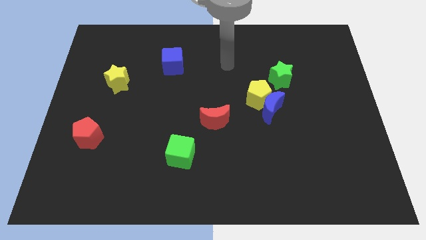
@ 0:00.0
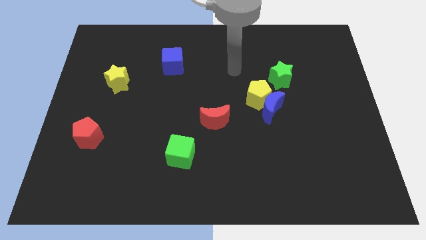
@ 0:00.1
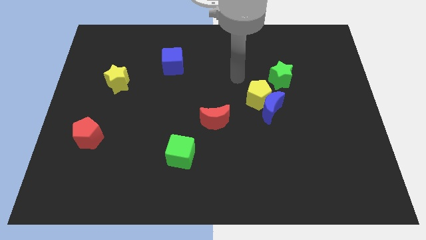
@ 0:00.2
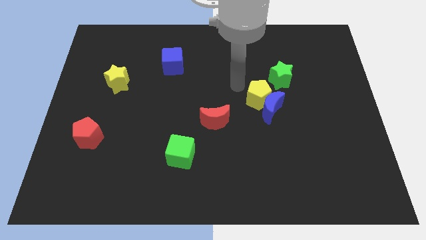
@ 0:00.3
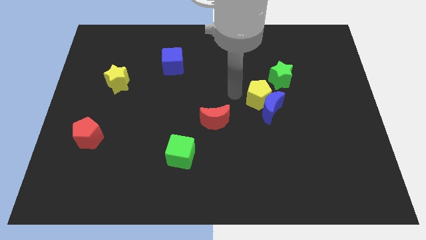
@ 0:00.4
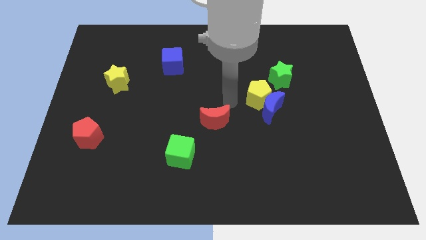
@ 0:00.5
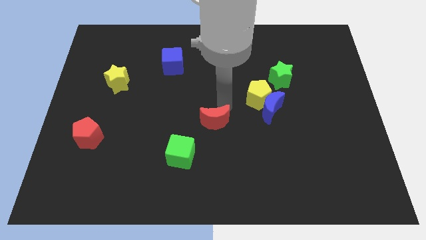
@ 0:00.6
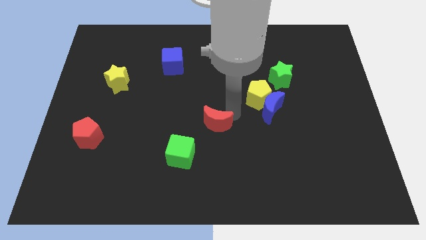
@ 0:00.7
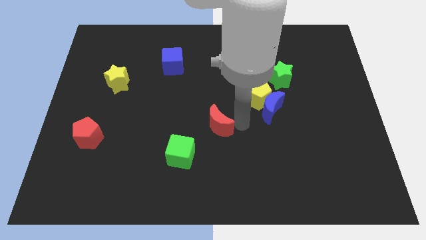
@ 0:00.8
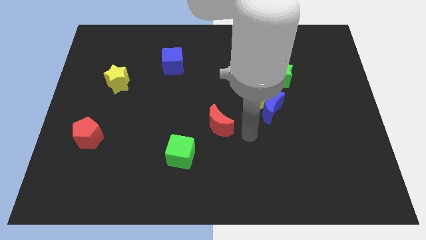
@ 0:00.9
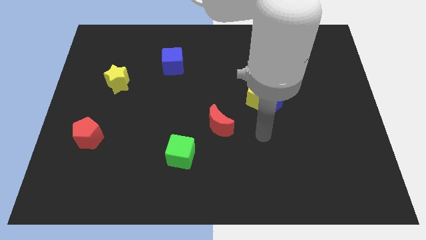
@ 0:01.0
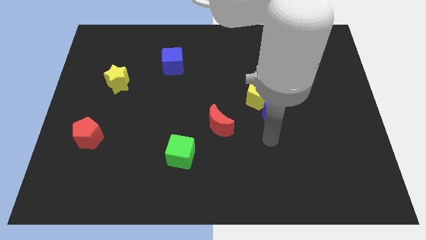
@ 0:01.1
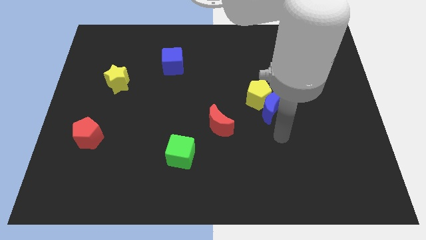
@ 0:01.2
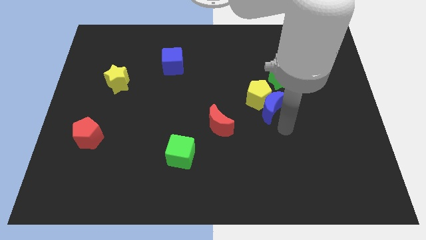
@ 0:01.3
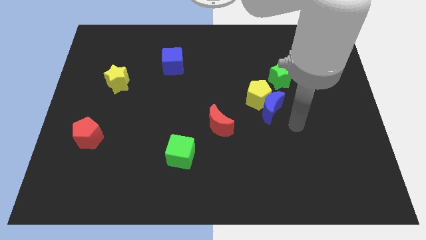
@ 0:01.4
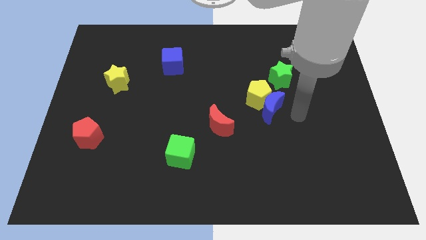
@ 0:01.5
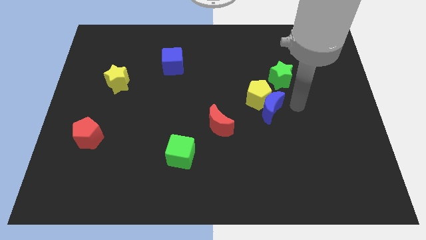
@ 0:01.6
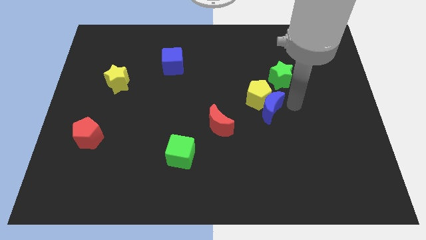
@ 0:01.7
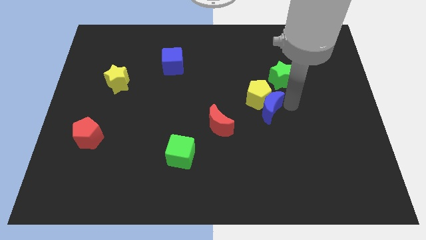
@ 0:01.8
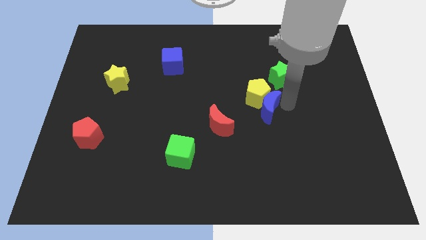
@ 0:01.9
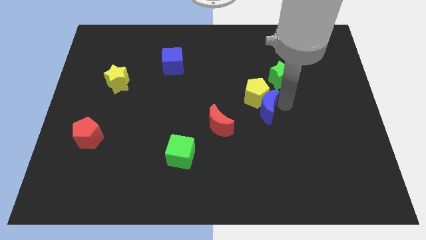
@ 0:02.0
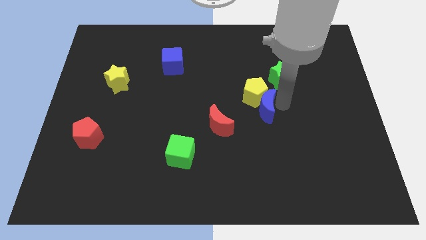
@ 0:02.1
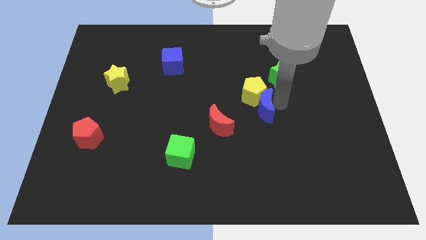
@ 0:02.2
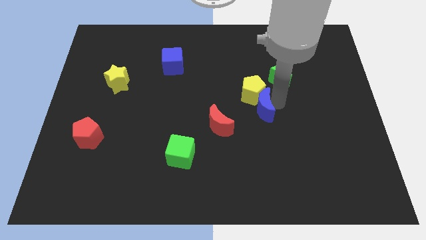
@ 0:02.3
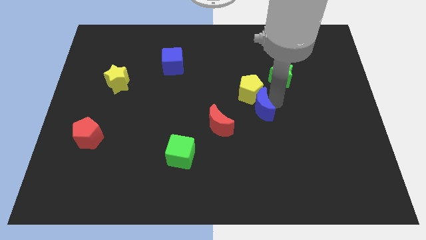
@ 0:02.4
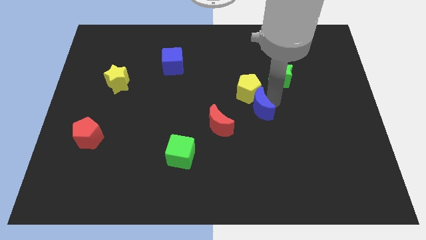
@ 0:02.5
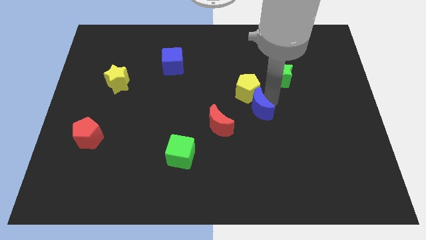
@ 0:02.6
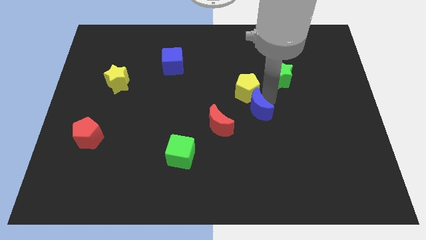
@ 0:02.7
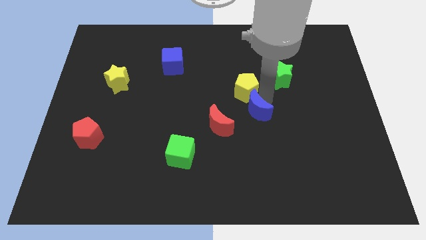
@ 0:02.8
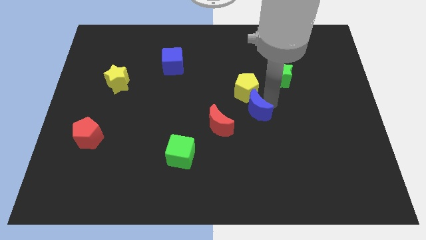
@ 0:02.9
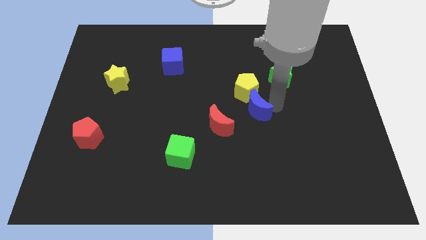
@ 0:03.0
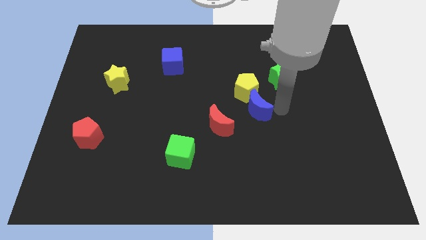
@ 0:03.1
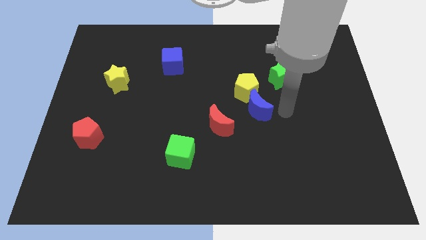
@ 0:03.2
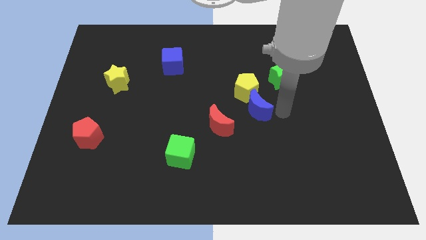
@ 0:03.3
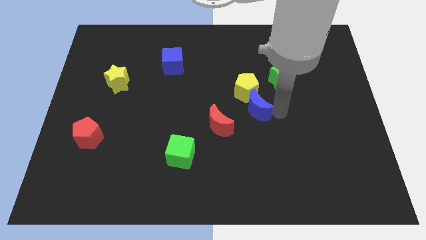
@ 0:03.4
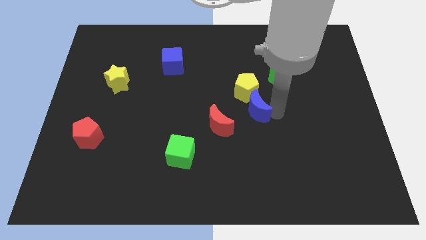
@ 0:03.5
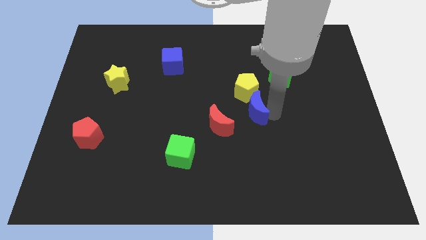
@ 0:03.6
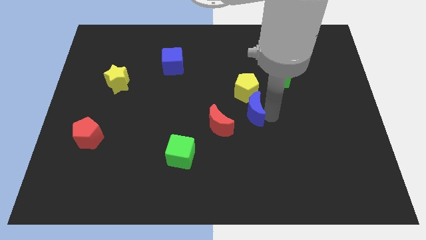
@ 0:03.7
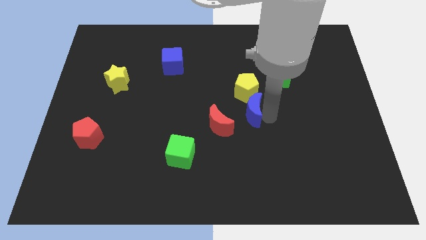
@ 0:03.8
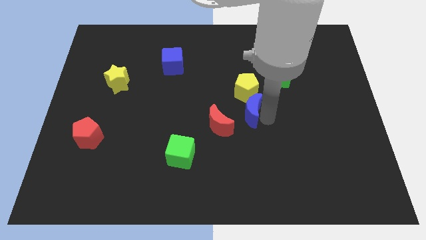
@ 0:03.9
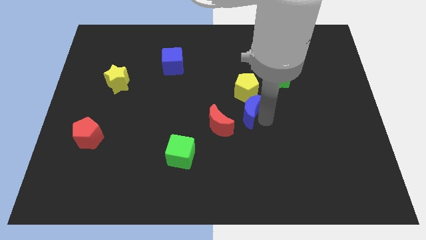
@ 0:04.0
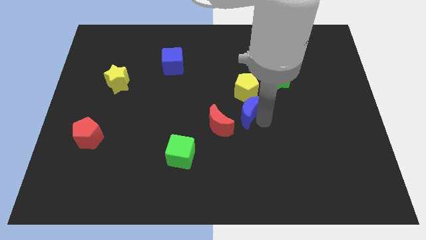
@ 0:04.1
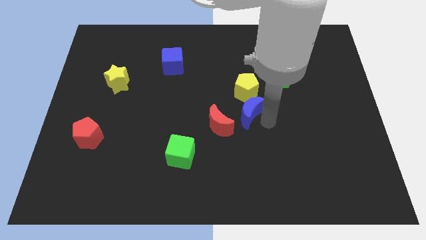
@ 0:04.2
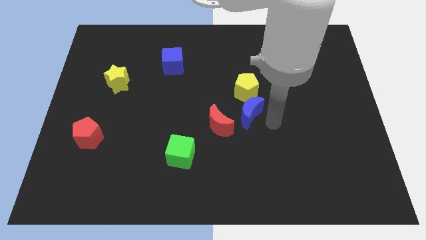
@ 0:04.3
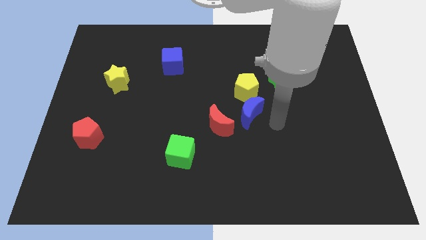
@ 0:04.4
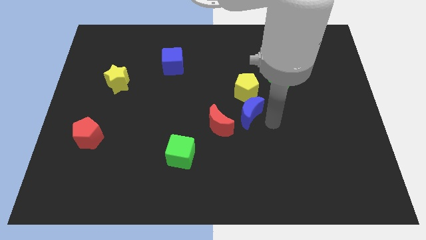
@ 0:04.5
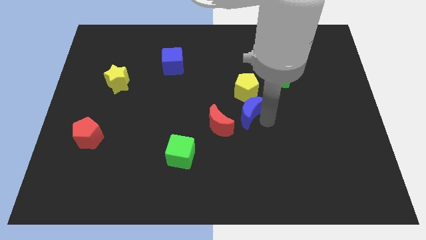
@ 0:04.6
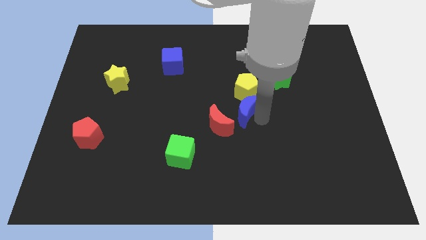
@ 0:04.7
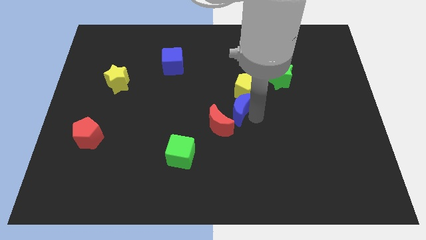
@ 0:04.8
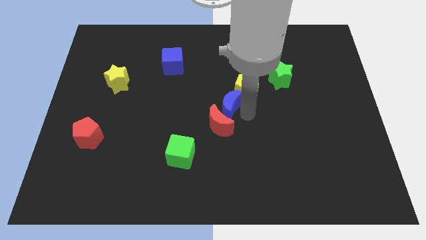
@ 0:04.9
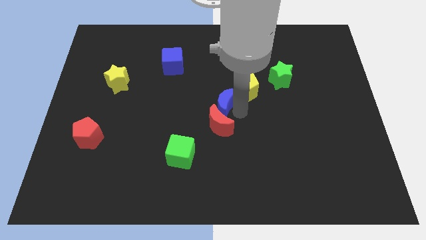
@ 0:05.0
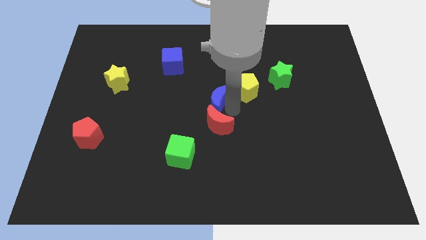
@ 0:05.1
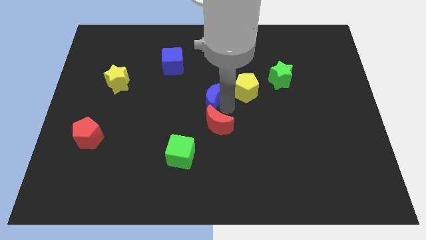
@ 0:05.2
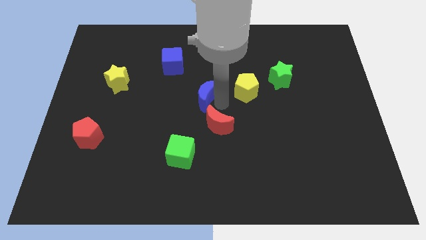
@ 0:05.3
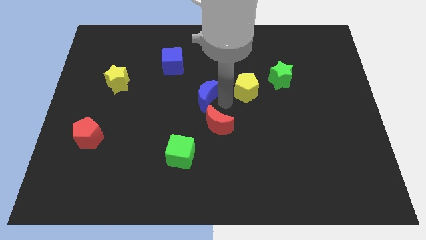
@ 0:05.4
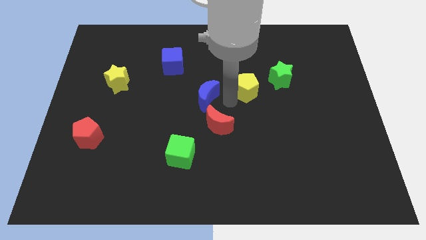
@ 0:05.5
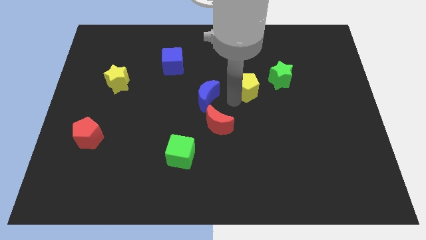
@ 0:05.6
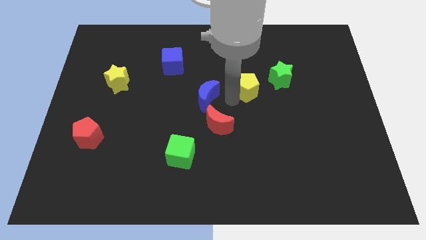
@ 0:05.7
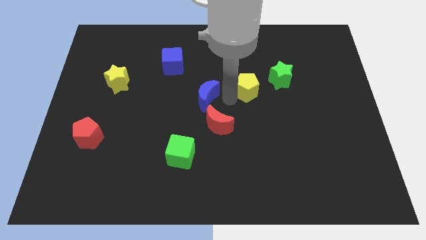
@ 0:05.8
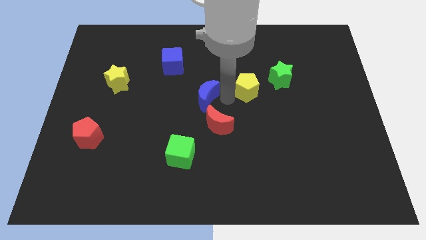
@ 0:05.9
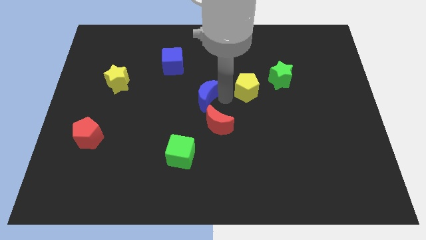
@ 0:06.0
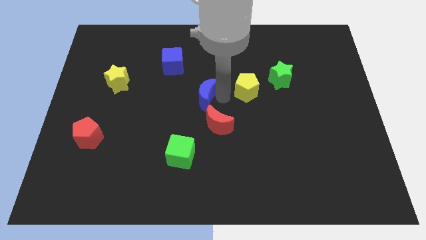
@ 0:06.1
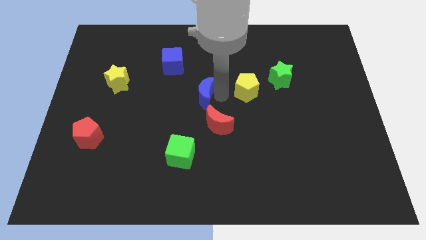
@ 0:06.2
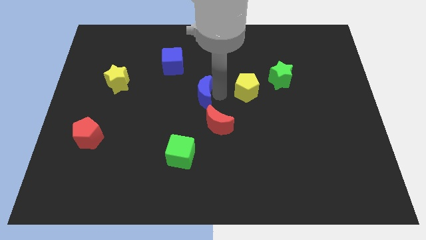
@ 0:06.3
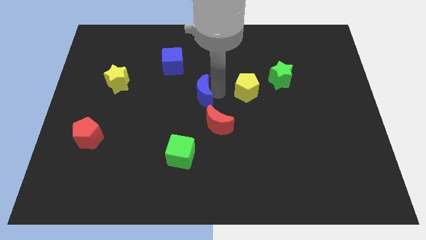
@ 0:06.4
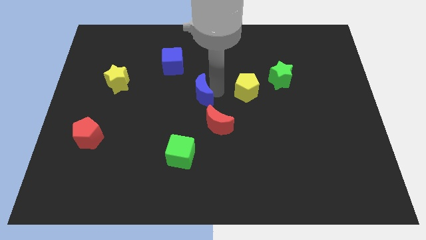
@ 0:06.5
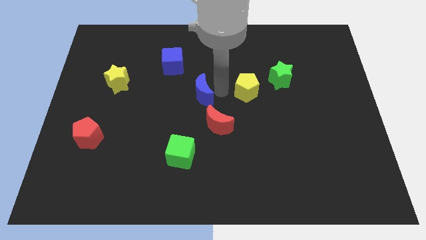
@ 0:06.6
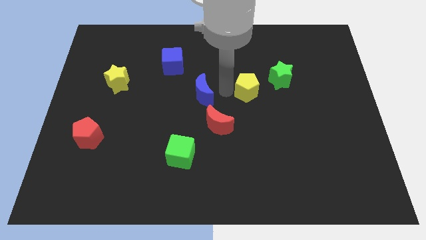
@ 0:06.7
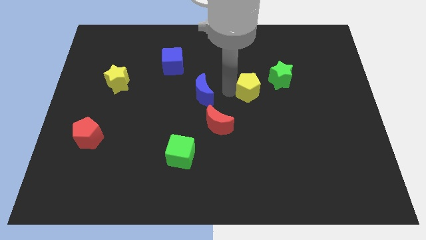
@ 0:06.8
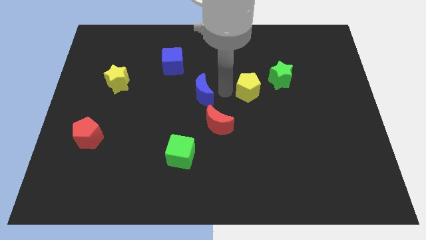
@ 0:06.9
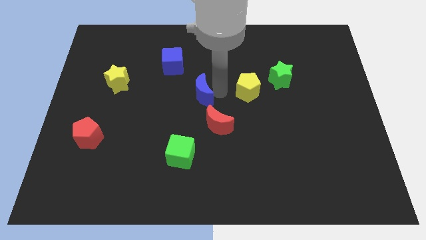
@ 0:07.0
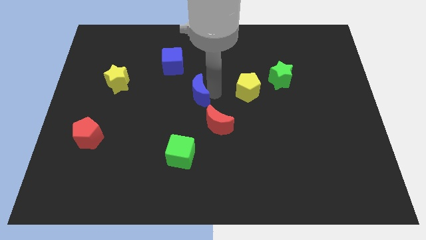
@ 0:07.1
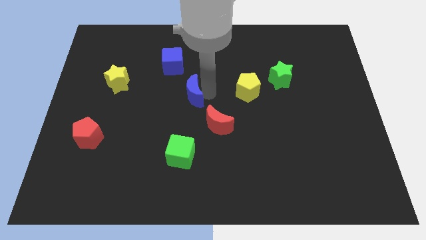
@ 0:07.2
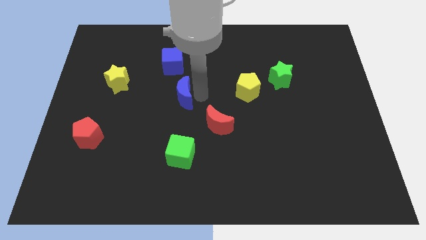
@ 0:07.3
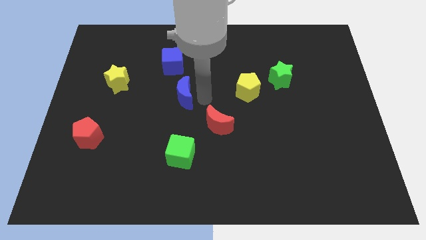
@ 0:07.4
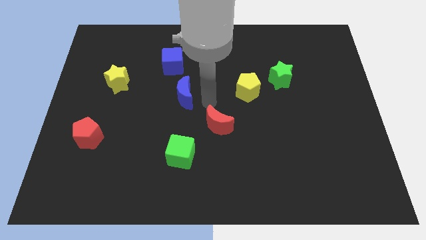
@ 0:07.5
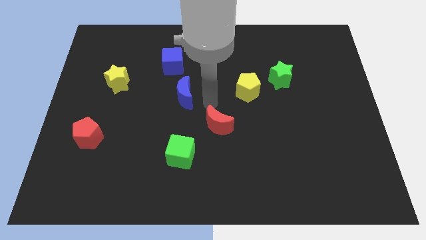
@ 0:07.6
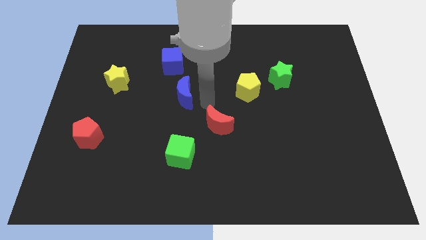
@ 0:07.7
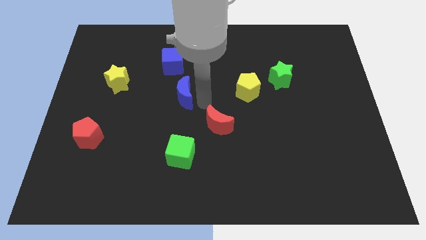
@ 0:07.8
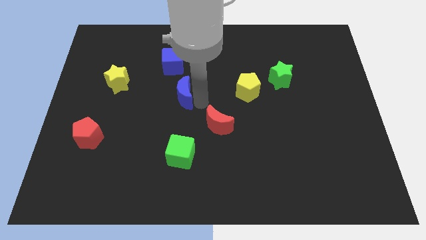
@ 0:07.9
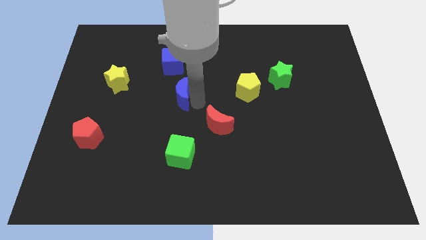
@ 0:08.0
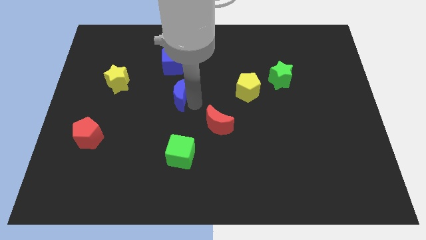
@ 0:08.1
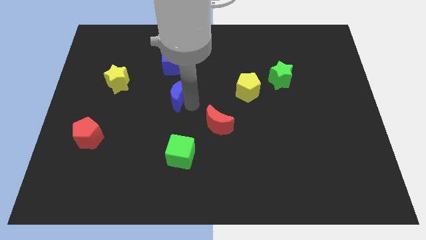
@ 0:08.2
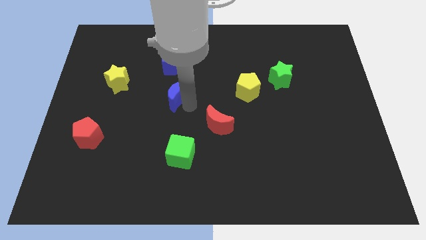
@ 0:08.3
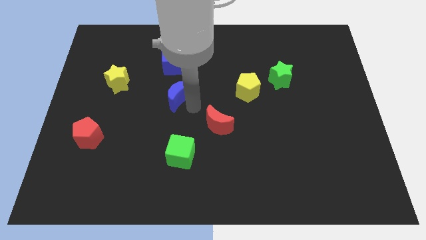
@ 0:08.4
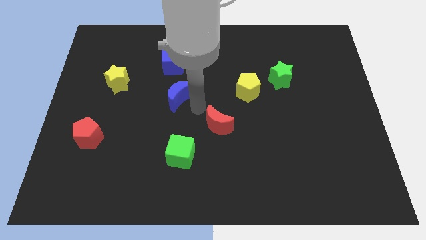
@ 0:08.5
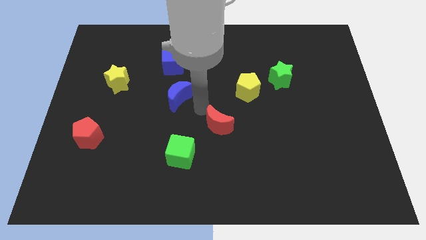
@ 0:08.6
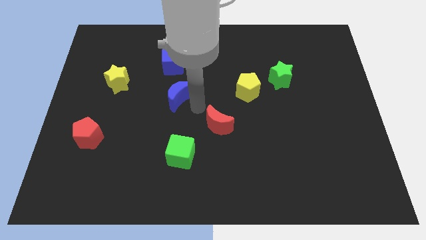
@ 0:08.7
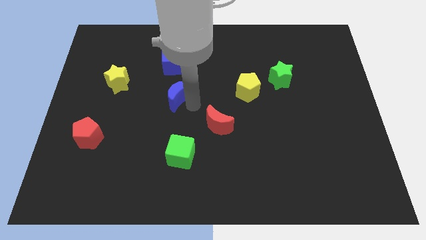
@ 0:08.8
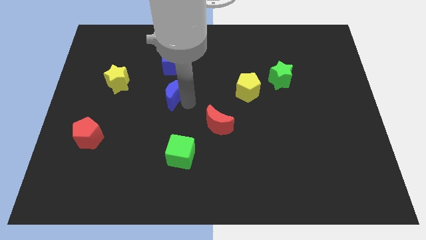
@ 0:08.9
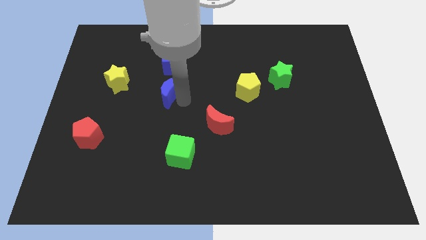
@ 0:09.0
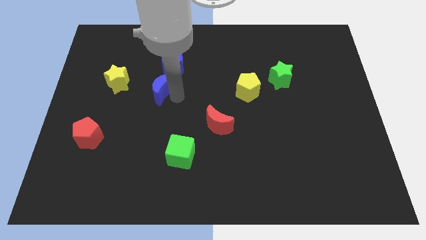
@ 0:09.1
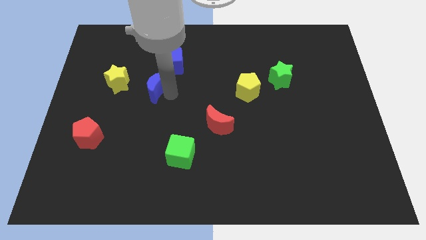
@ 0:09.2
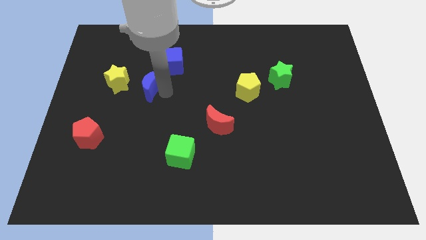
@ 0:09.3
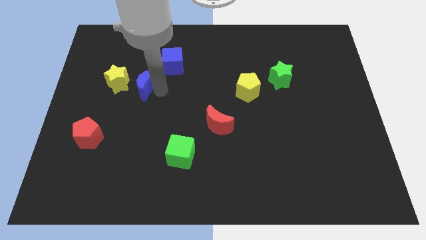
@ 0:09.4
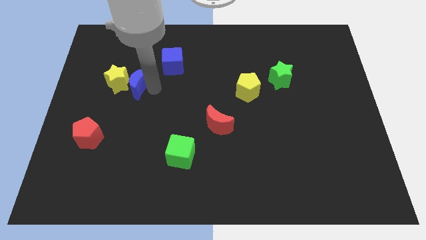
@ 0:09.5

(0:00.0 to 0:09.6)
push the blue moon to the yellow star
